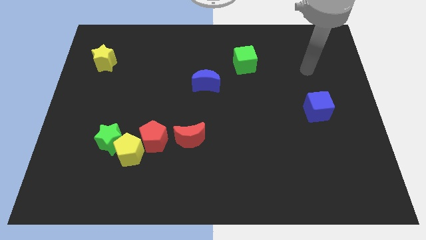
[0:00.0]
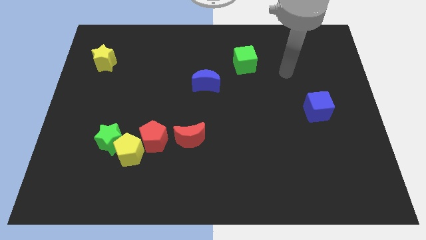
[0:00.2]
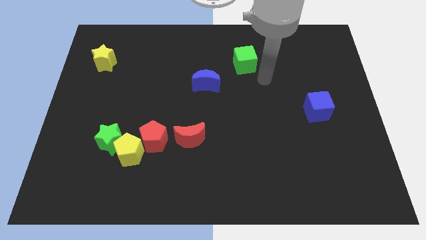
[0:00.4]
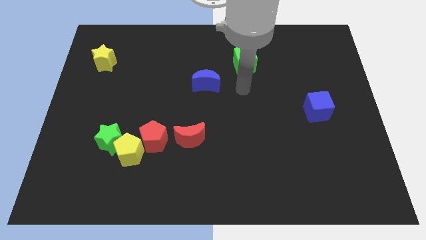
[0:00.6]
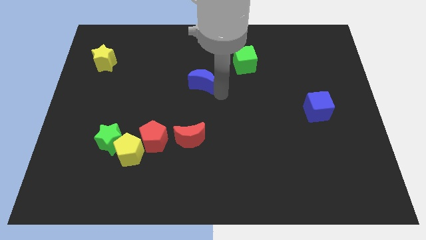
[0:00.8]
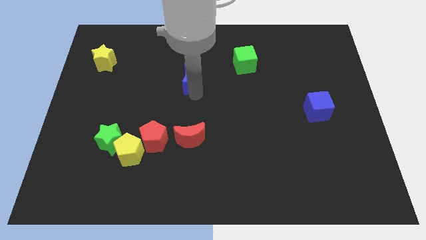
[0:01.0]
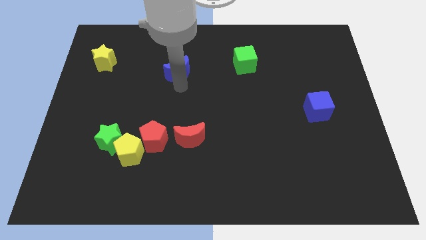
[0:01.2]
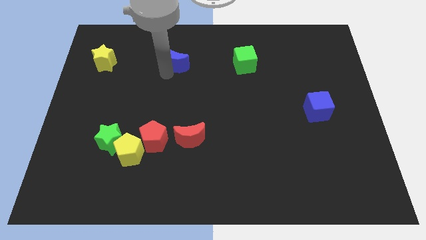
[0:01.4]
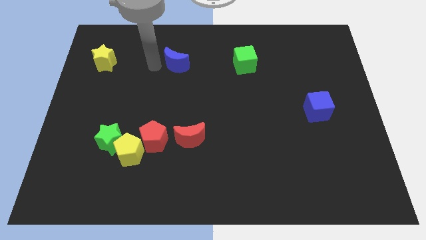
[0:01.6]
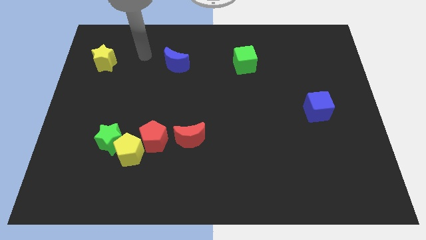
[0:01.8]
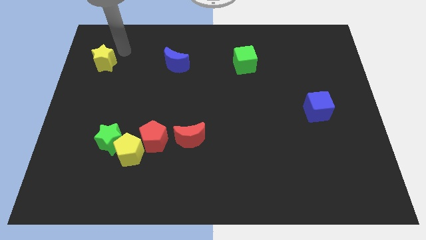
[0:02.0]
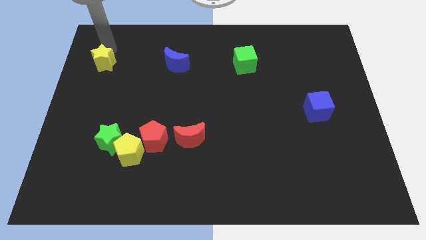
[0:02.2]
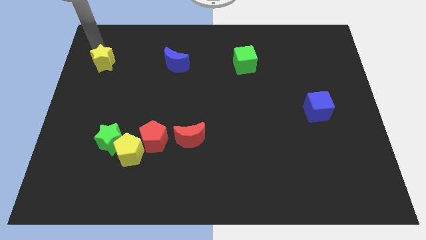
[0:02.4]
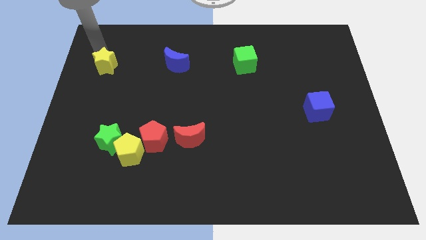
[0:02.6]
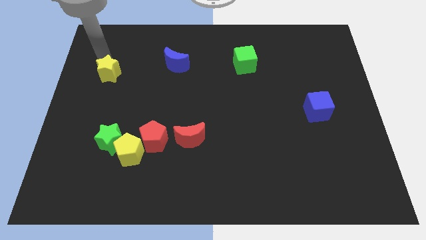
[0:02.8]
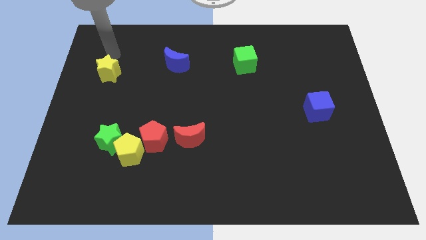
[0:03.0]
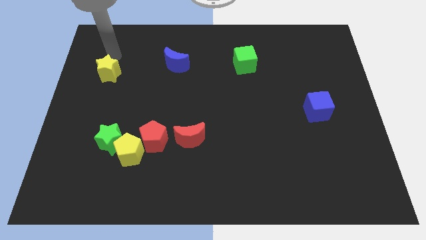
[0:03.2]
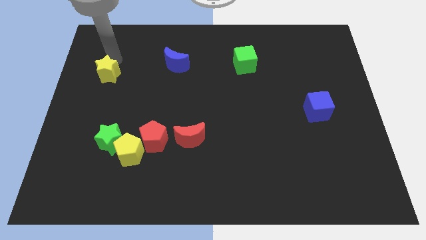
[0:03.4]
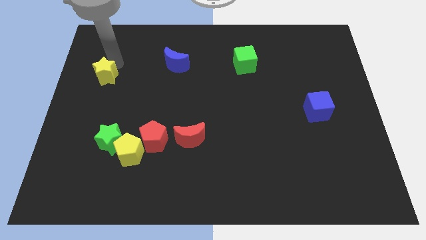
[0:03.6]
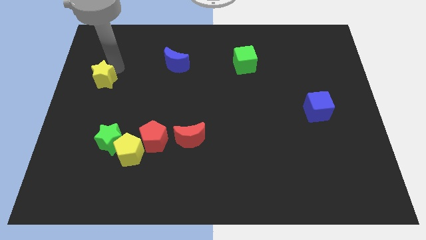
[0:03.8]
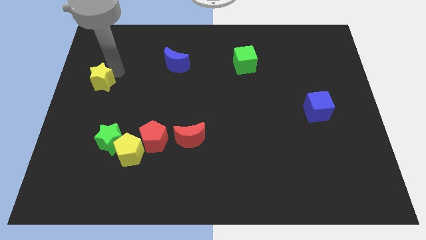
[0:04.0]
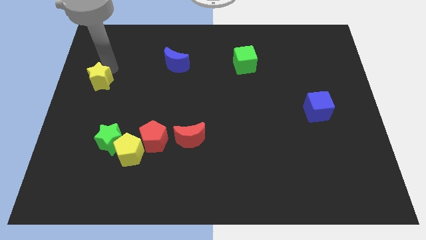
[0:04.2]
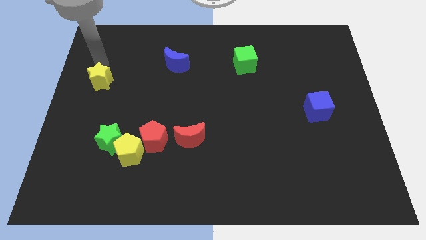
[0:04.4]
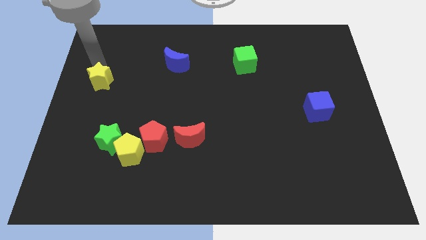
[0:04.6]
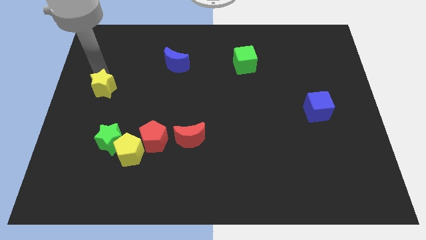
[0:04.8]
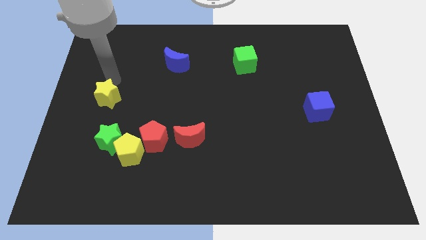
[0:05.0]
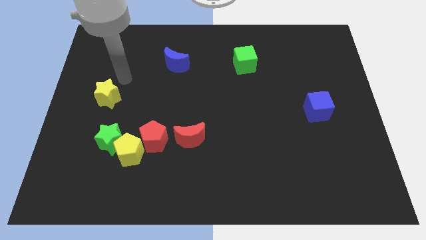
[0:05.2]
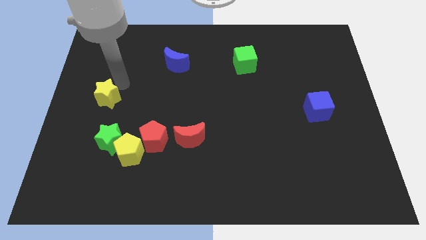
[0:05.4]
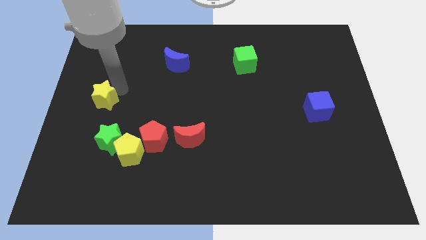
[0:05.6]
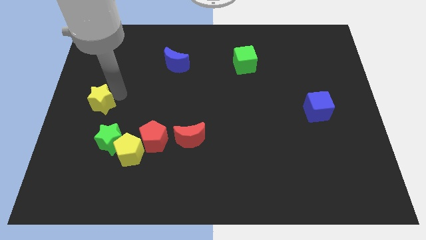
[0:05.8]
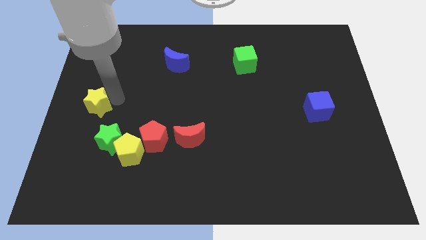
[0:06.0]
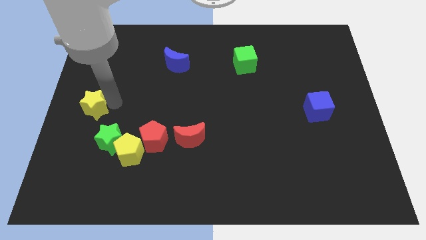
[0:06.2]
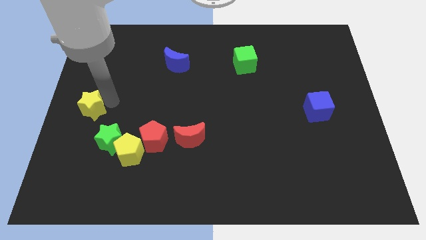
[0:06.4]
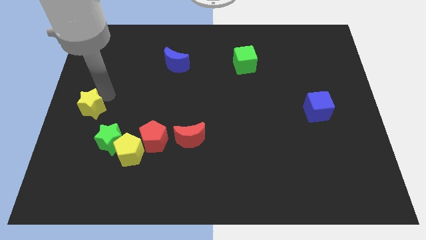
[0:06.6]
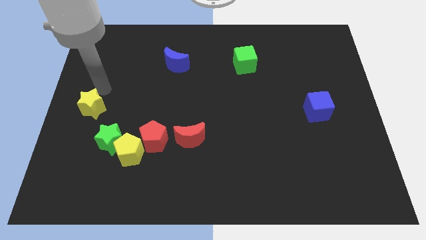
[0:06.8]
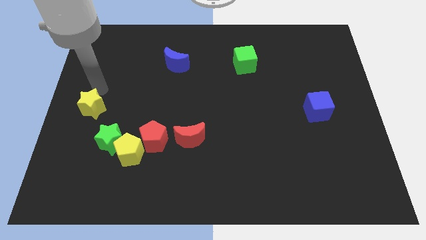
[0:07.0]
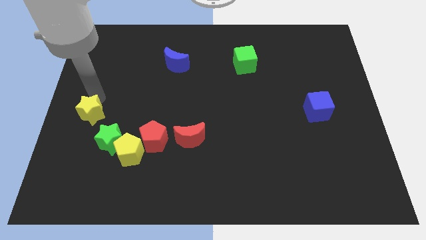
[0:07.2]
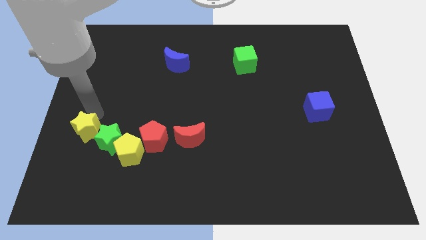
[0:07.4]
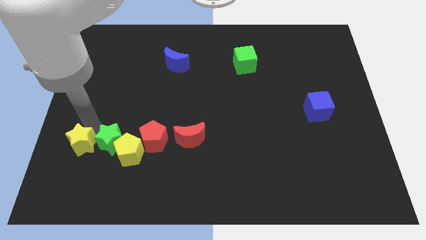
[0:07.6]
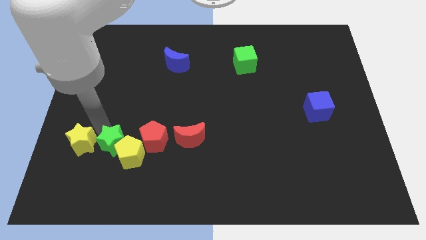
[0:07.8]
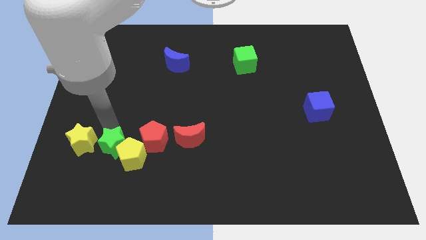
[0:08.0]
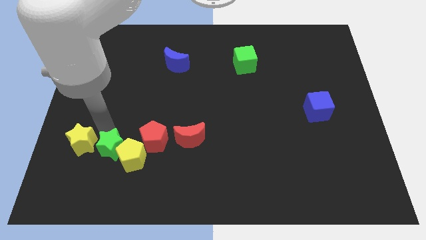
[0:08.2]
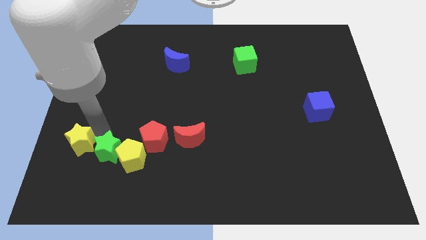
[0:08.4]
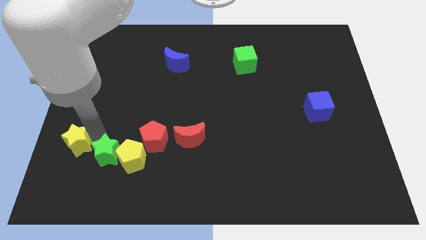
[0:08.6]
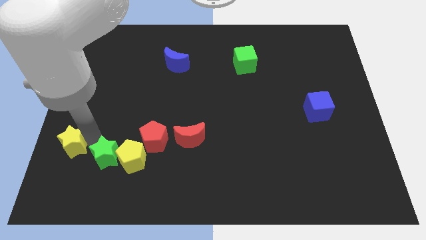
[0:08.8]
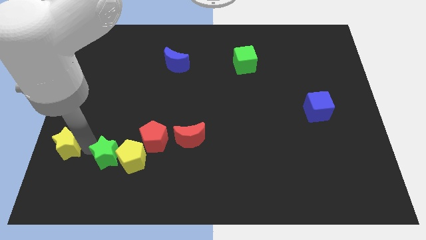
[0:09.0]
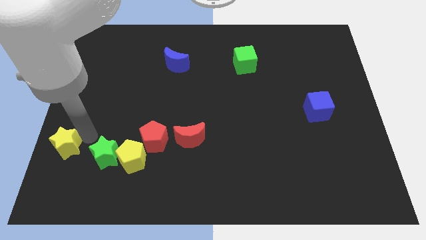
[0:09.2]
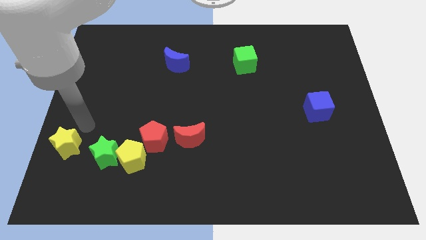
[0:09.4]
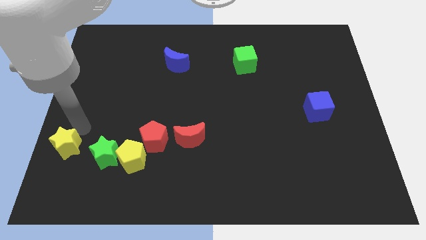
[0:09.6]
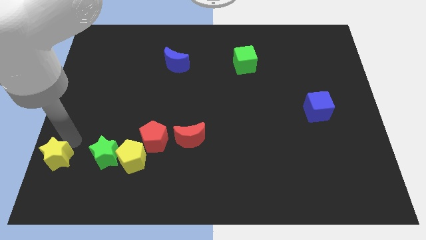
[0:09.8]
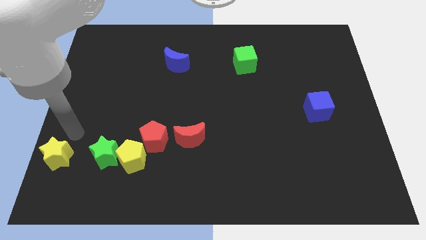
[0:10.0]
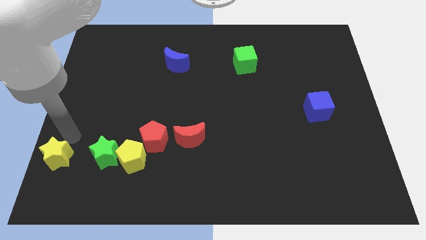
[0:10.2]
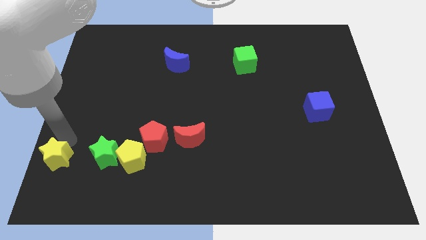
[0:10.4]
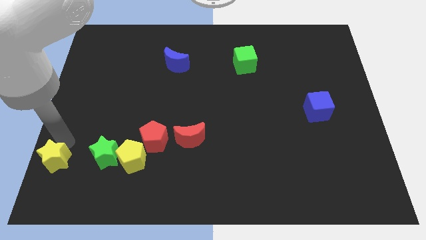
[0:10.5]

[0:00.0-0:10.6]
slide the yellow star to the lower left corner

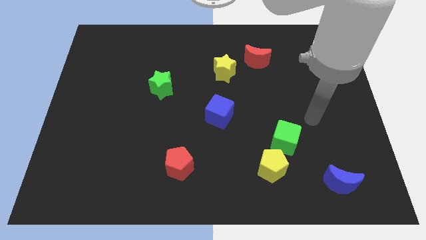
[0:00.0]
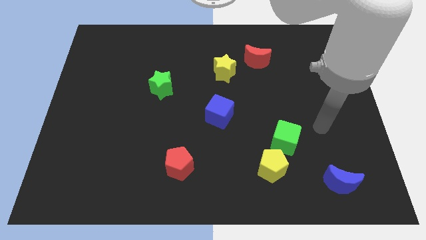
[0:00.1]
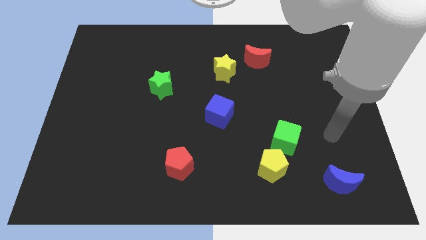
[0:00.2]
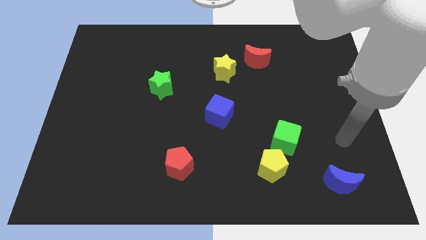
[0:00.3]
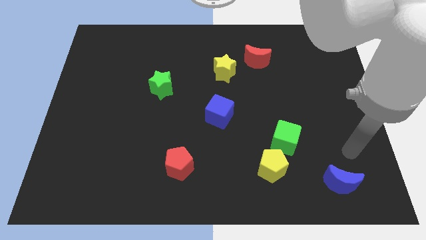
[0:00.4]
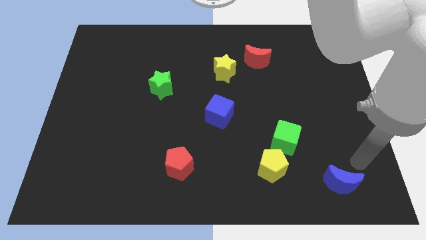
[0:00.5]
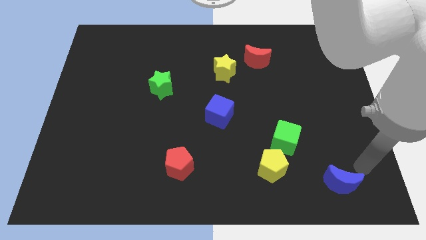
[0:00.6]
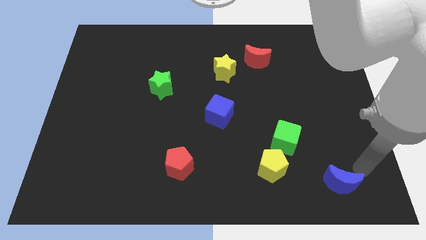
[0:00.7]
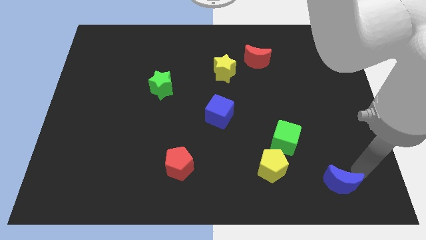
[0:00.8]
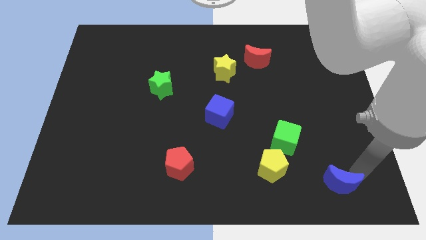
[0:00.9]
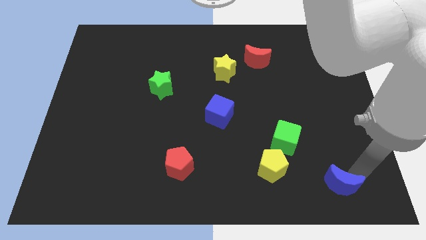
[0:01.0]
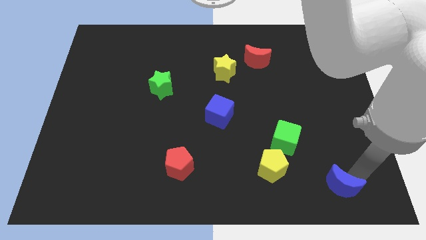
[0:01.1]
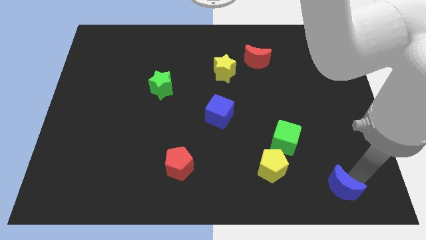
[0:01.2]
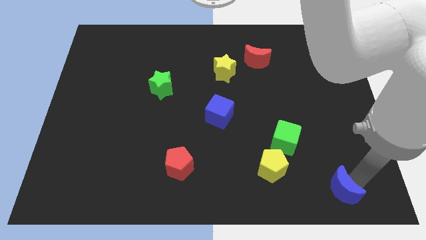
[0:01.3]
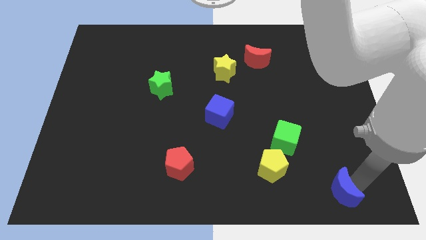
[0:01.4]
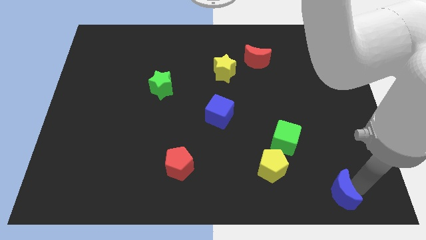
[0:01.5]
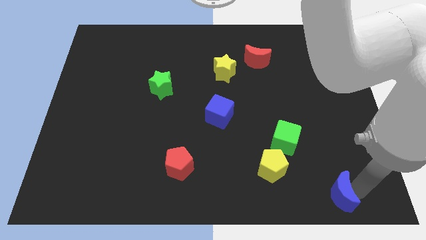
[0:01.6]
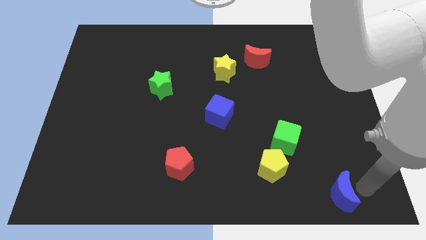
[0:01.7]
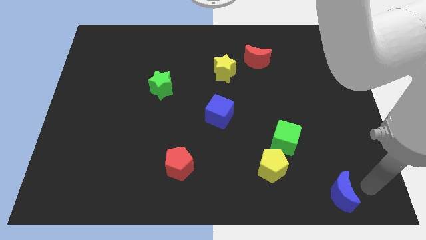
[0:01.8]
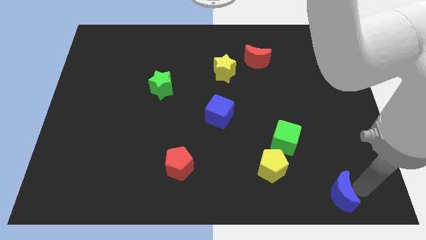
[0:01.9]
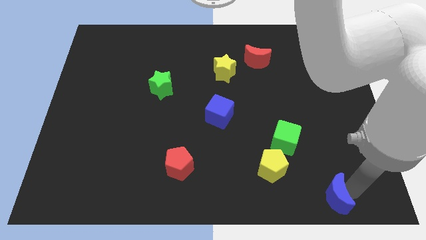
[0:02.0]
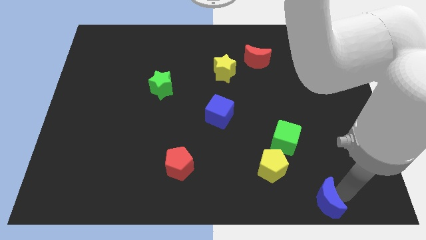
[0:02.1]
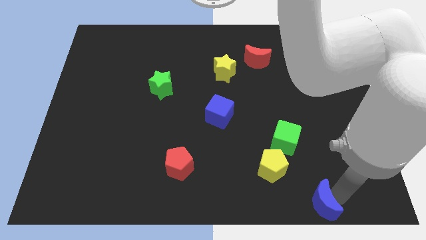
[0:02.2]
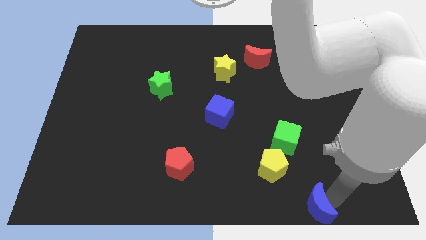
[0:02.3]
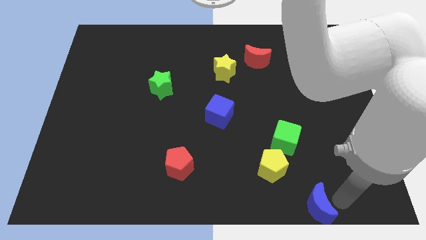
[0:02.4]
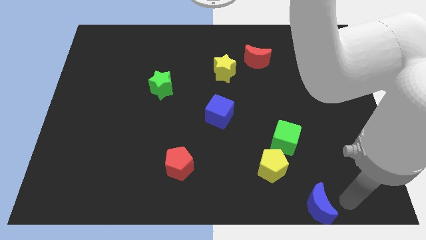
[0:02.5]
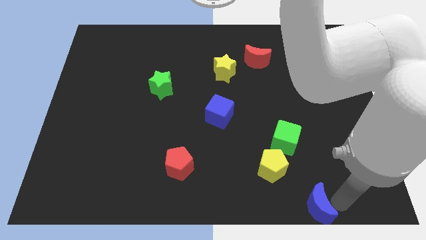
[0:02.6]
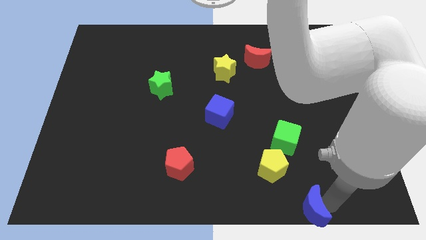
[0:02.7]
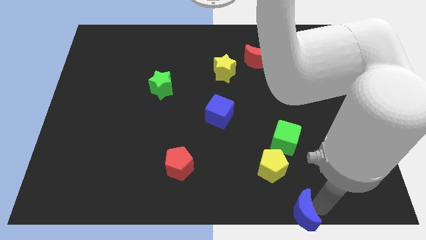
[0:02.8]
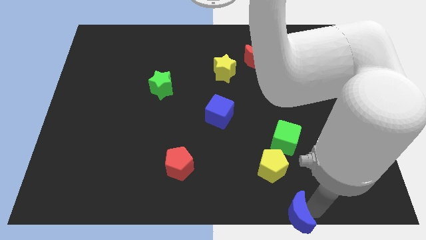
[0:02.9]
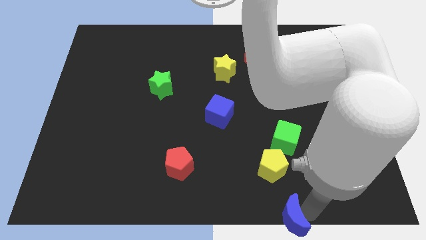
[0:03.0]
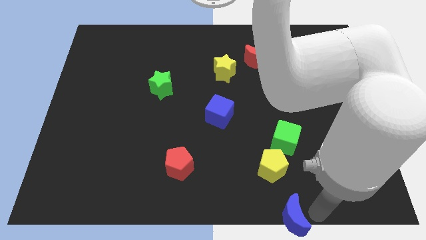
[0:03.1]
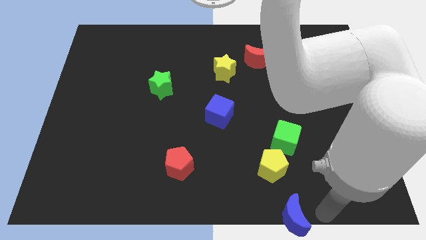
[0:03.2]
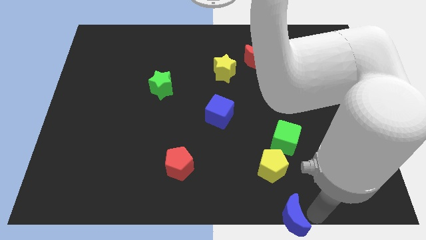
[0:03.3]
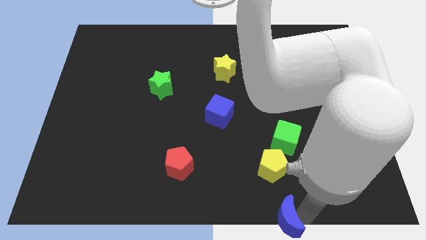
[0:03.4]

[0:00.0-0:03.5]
put the blue moon to the bottom
